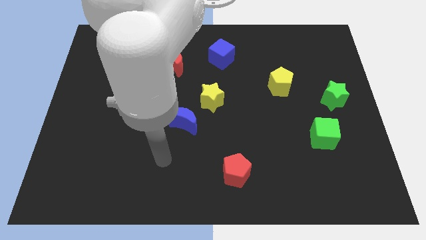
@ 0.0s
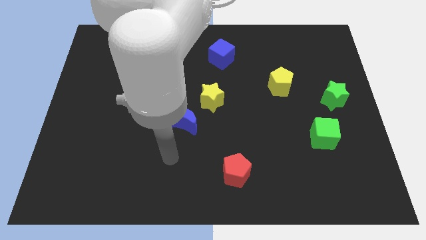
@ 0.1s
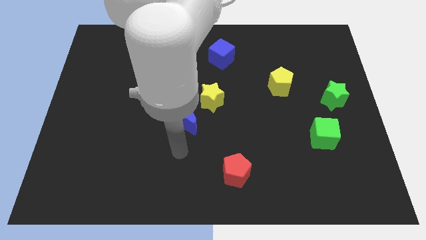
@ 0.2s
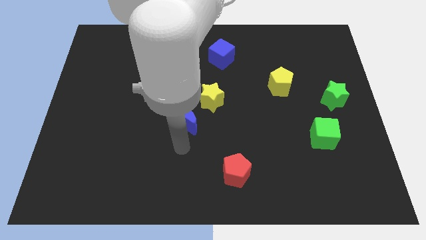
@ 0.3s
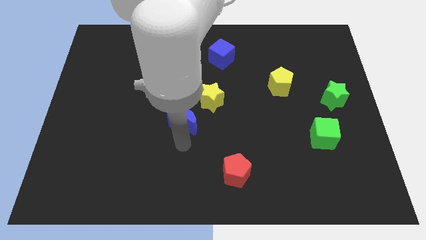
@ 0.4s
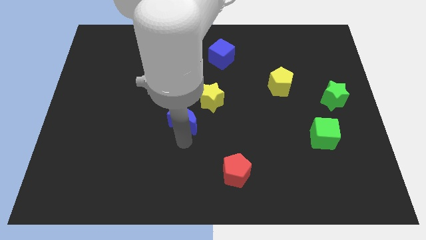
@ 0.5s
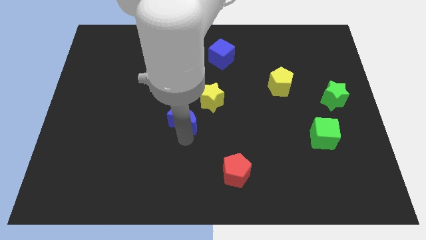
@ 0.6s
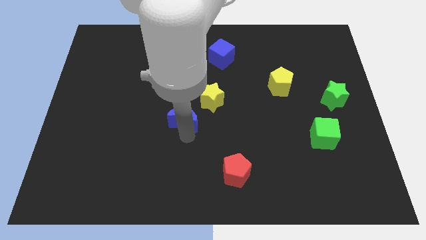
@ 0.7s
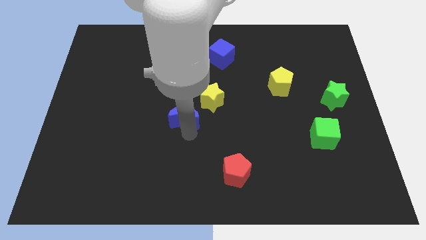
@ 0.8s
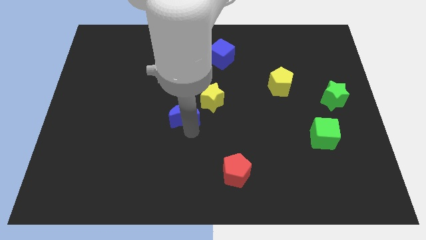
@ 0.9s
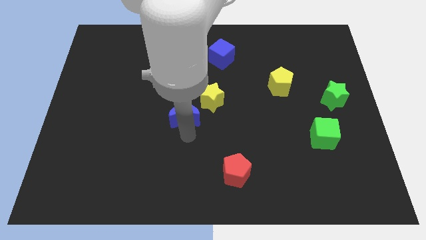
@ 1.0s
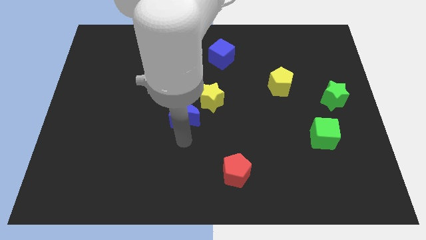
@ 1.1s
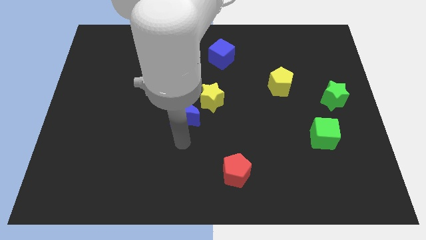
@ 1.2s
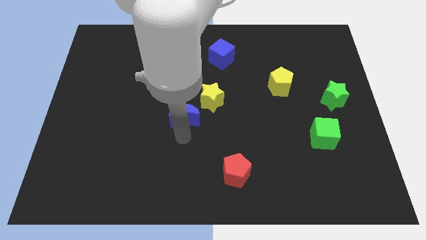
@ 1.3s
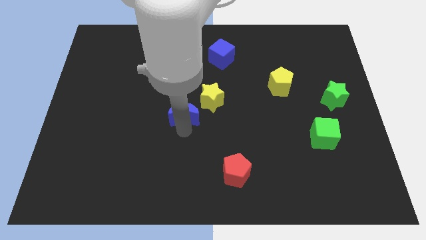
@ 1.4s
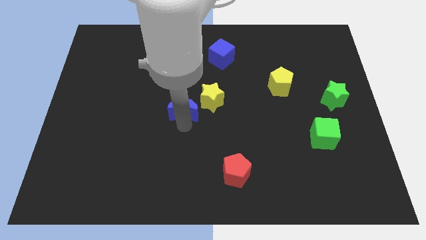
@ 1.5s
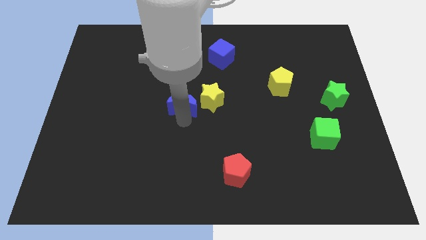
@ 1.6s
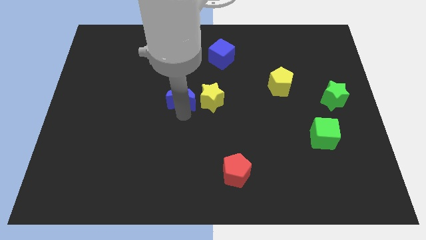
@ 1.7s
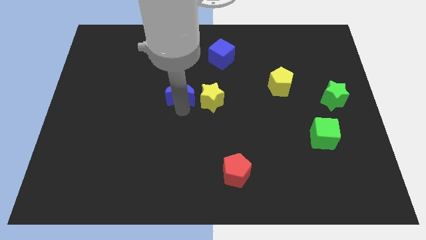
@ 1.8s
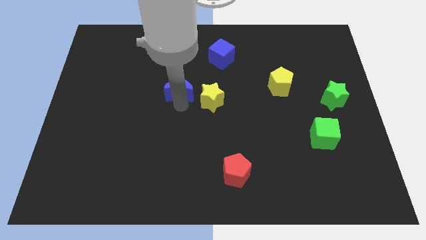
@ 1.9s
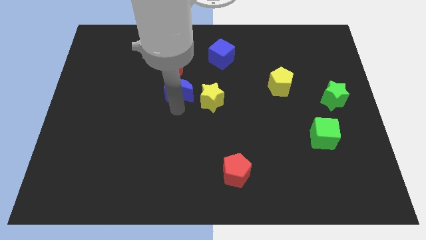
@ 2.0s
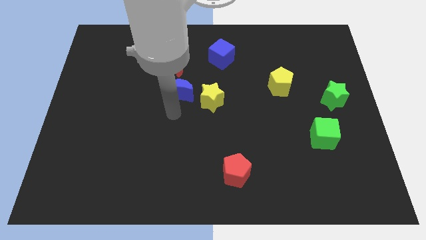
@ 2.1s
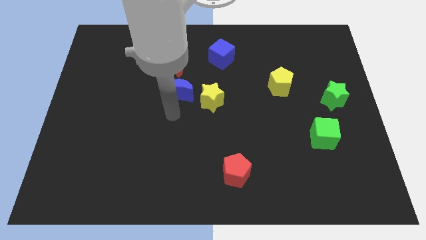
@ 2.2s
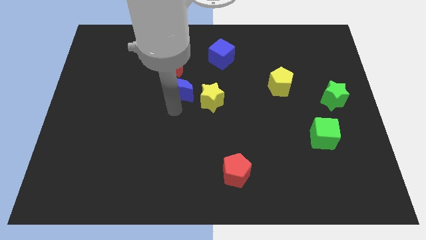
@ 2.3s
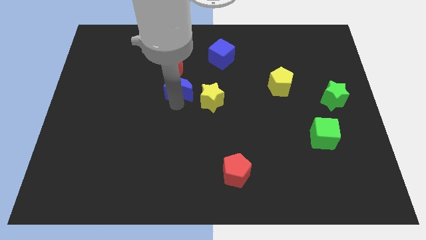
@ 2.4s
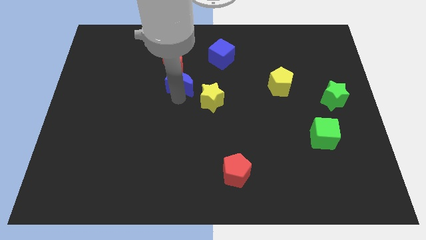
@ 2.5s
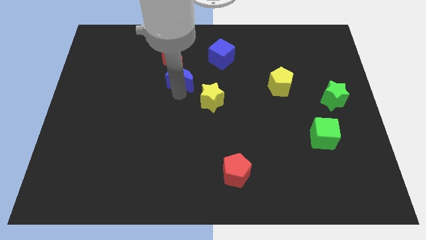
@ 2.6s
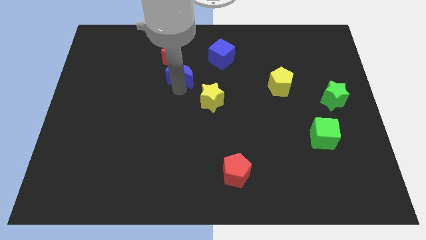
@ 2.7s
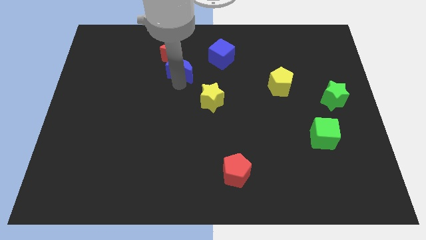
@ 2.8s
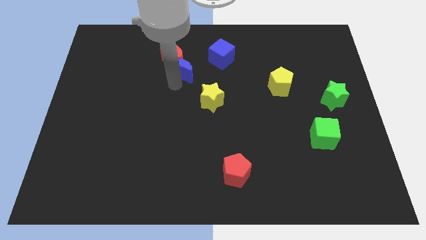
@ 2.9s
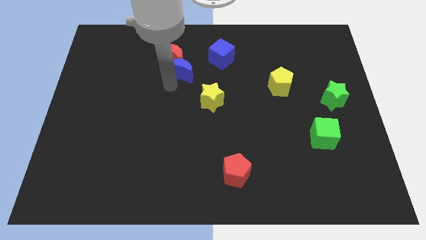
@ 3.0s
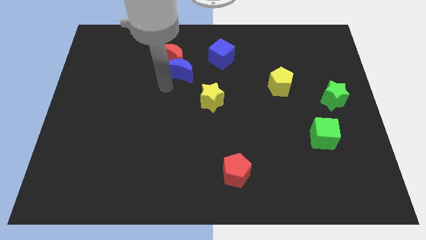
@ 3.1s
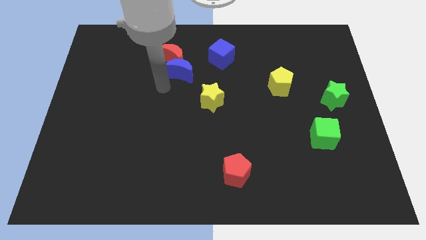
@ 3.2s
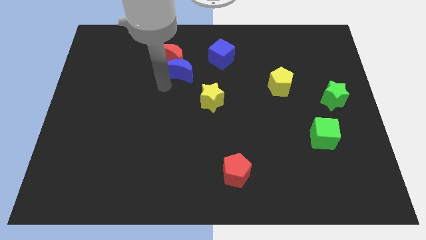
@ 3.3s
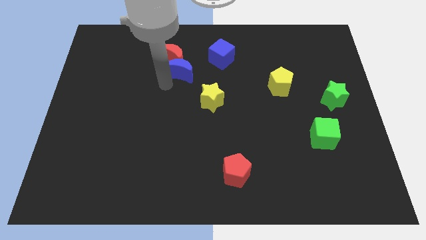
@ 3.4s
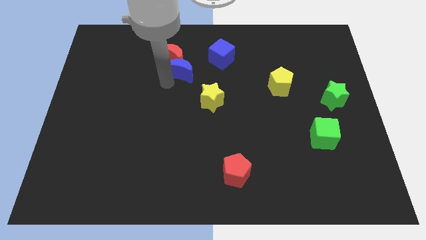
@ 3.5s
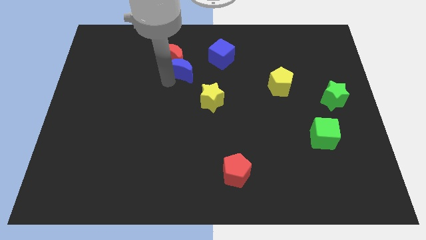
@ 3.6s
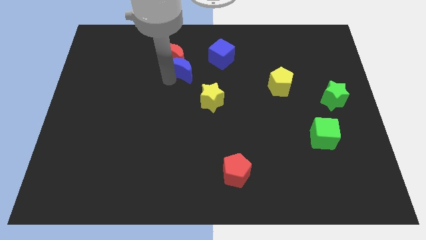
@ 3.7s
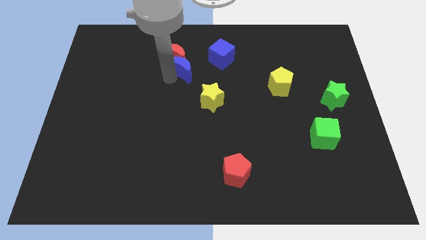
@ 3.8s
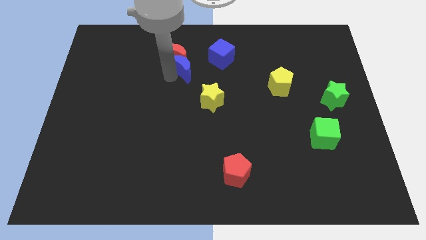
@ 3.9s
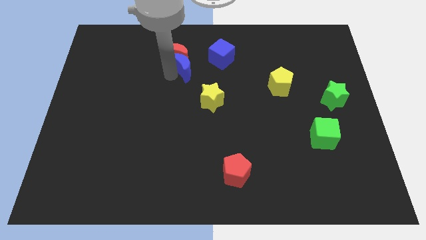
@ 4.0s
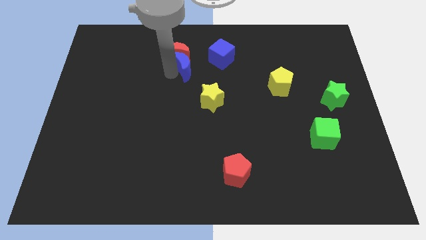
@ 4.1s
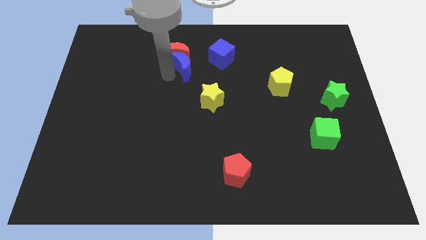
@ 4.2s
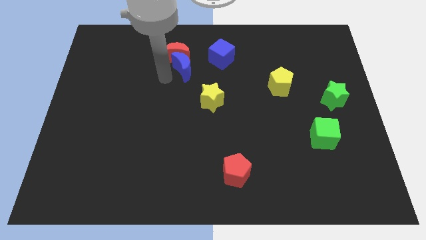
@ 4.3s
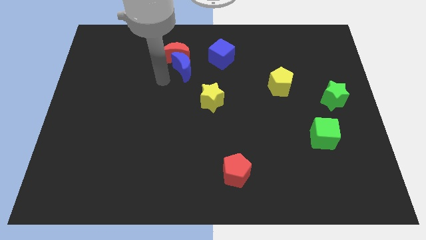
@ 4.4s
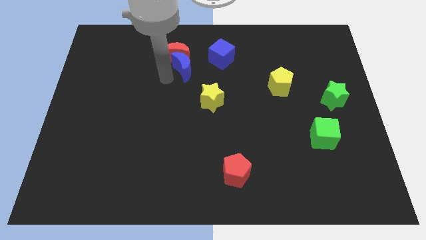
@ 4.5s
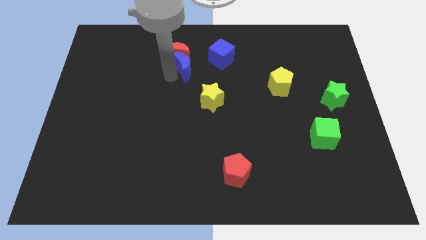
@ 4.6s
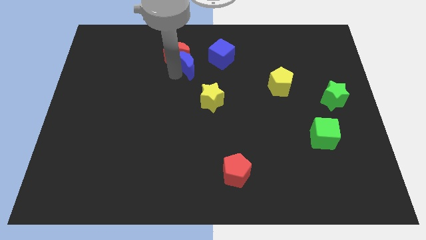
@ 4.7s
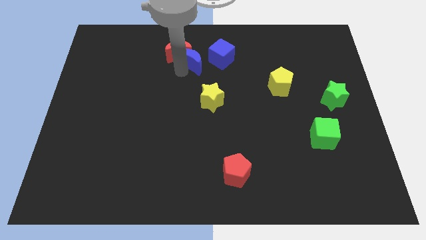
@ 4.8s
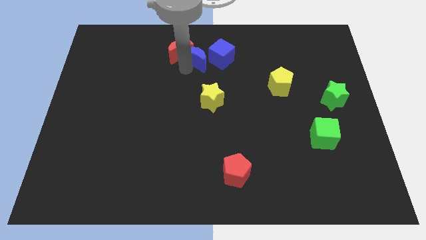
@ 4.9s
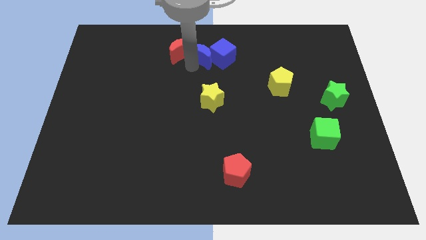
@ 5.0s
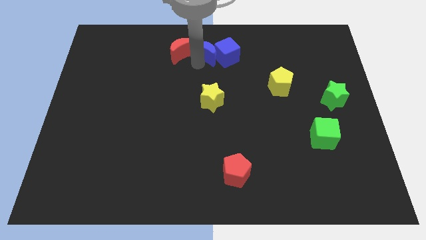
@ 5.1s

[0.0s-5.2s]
push the blue moon to the towards your base

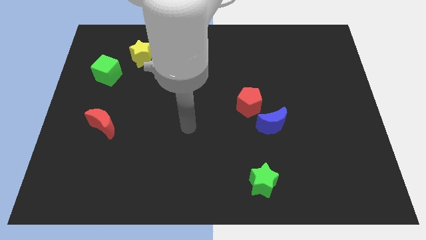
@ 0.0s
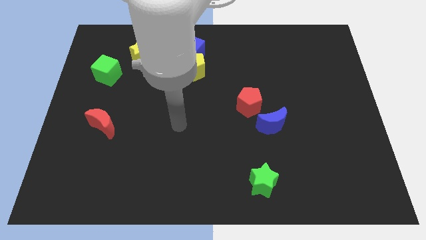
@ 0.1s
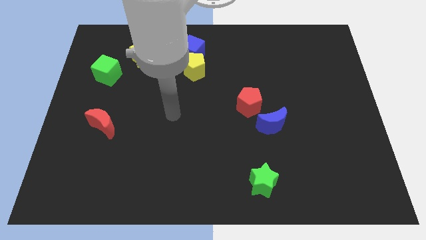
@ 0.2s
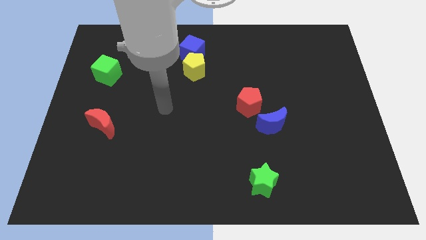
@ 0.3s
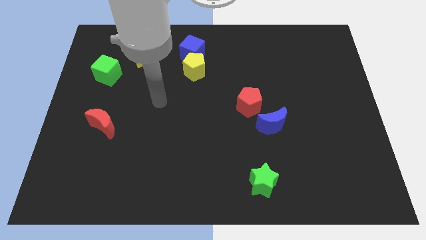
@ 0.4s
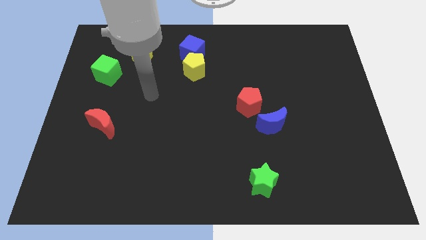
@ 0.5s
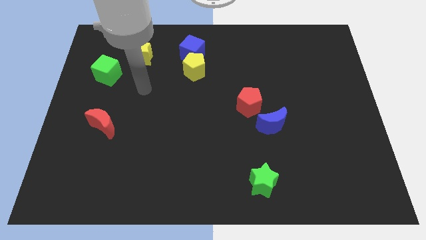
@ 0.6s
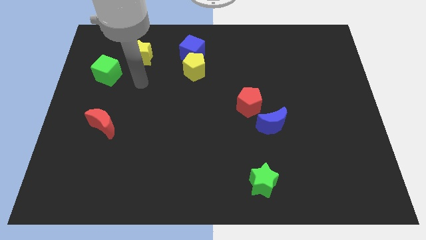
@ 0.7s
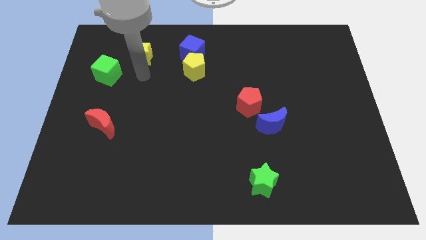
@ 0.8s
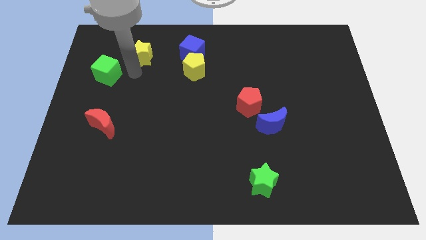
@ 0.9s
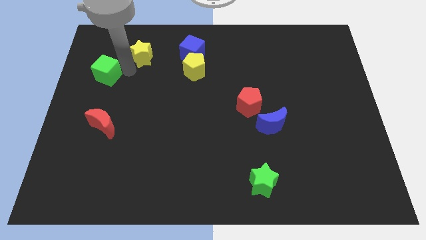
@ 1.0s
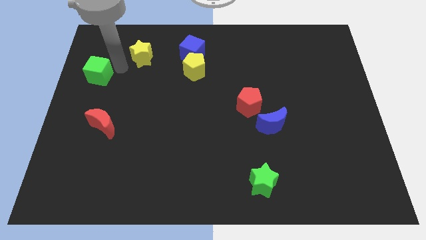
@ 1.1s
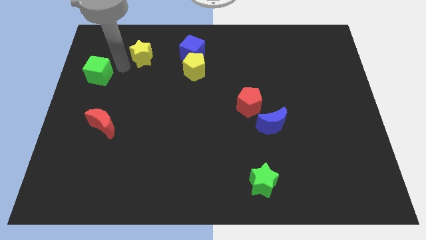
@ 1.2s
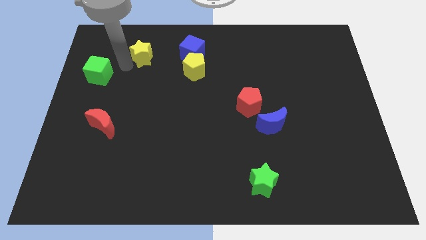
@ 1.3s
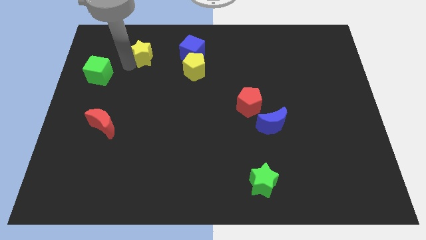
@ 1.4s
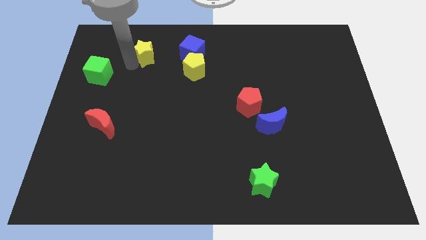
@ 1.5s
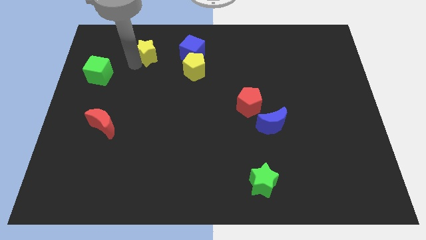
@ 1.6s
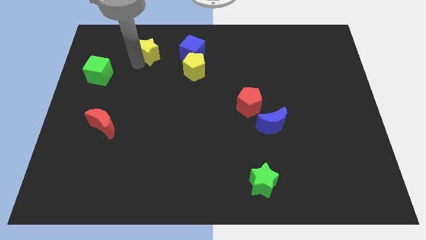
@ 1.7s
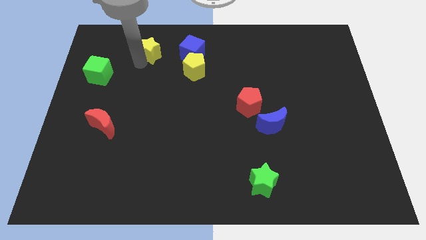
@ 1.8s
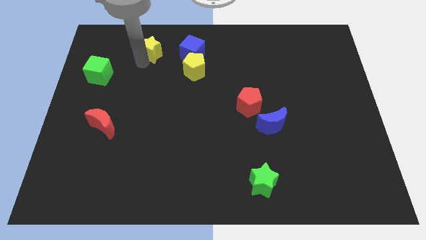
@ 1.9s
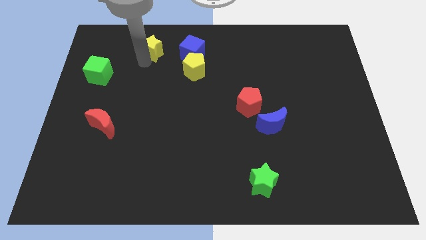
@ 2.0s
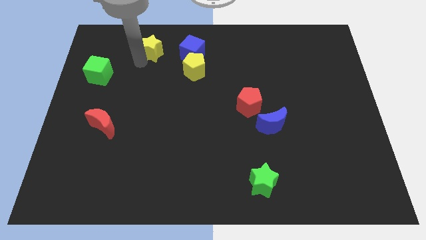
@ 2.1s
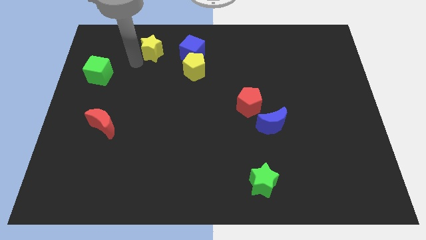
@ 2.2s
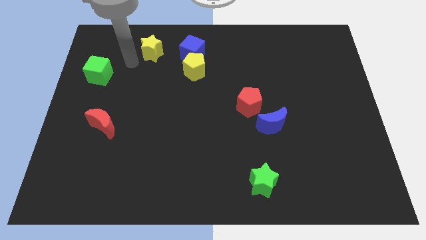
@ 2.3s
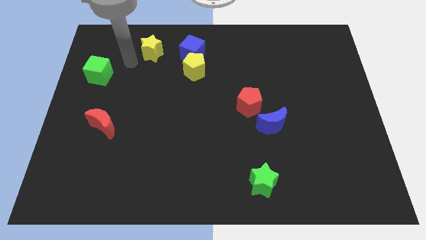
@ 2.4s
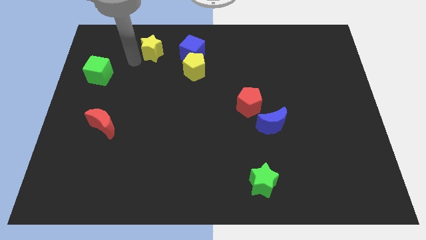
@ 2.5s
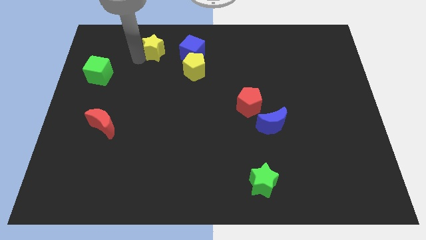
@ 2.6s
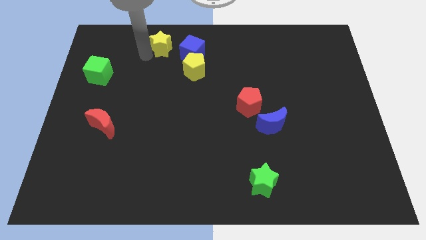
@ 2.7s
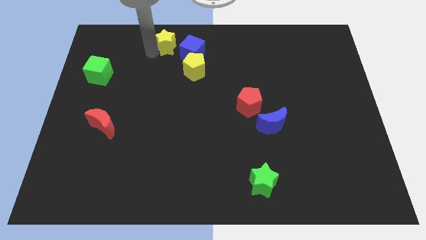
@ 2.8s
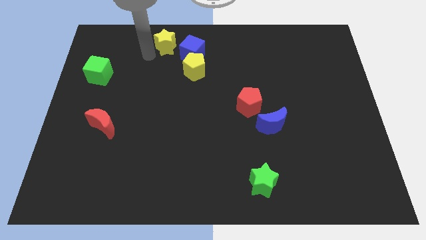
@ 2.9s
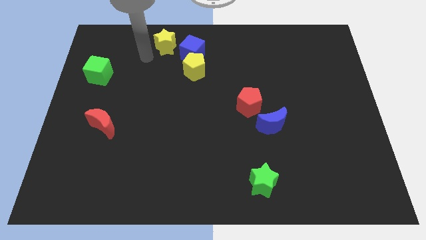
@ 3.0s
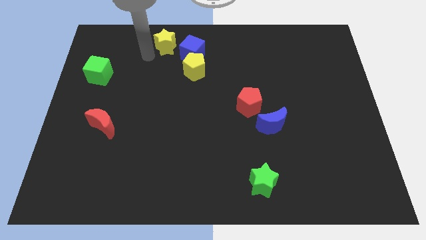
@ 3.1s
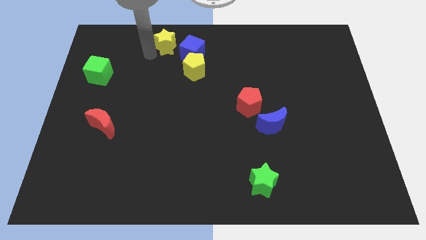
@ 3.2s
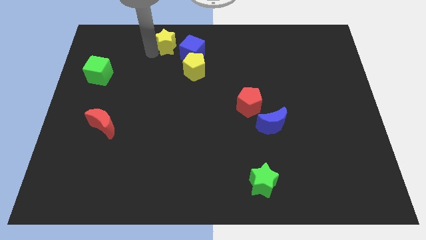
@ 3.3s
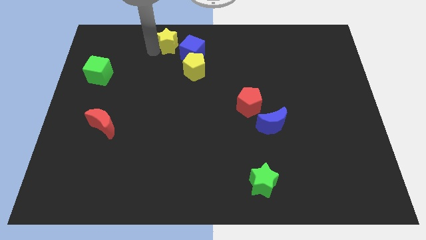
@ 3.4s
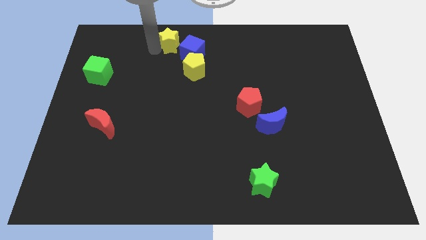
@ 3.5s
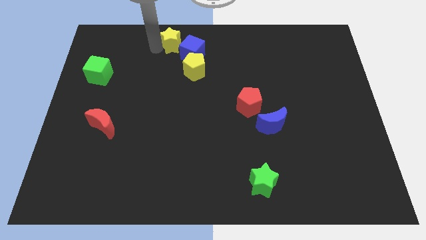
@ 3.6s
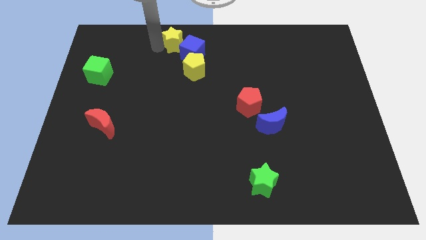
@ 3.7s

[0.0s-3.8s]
put the yellow star to the top side
